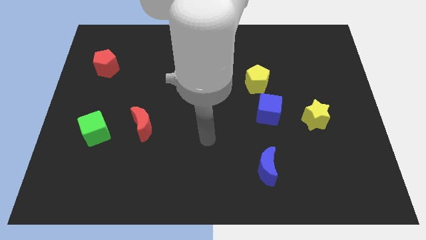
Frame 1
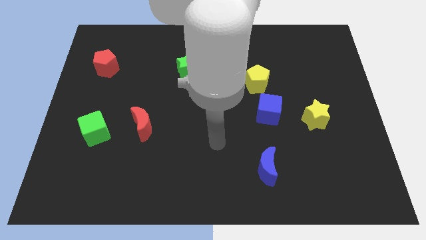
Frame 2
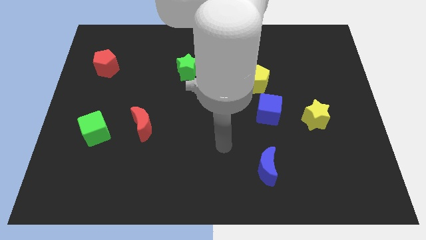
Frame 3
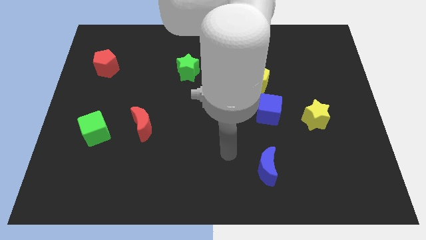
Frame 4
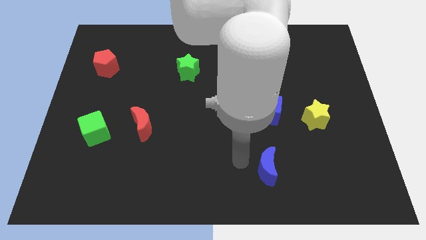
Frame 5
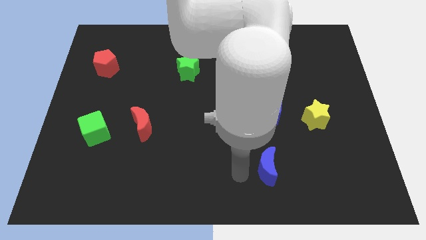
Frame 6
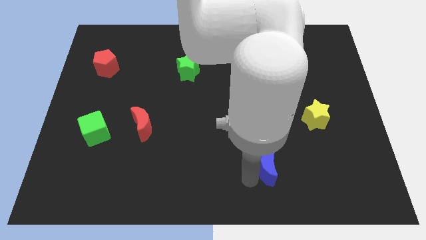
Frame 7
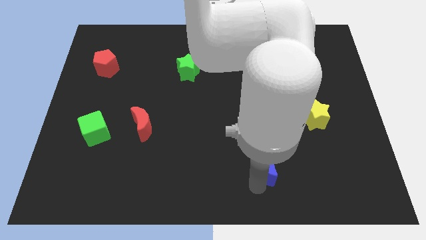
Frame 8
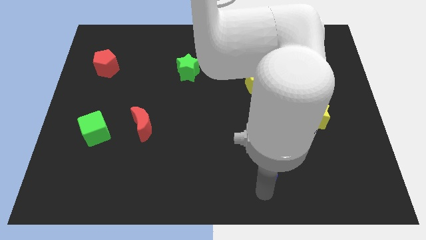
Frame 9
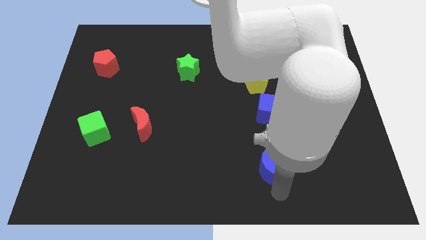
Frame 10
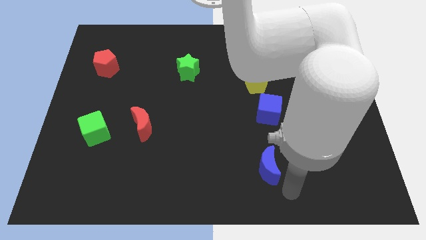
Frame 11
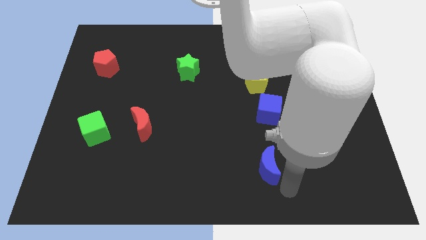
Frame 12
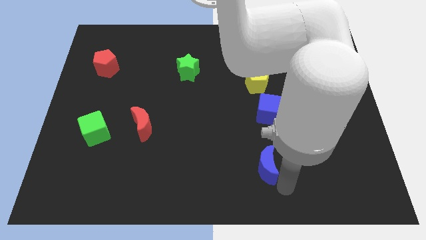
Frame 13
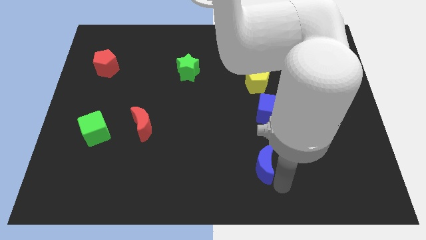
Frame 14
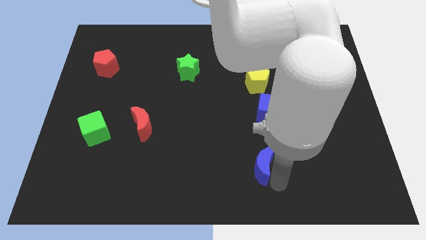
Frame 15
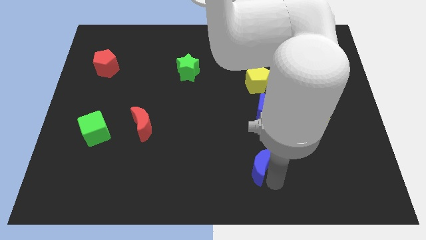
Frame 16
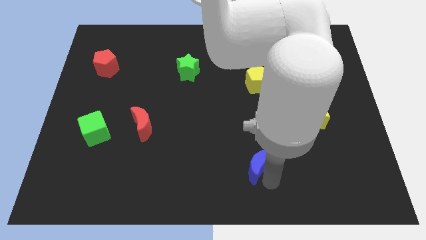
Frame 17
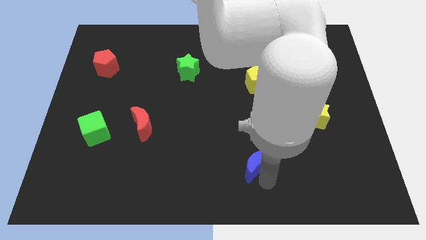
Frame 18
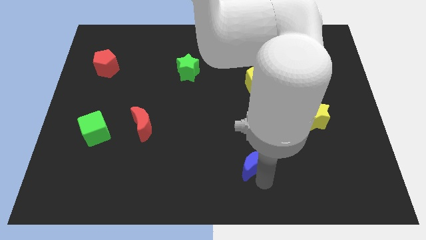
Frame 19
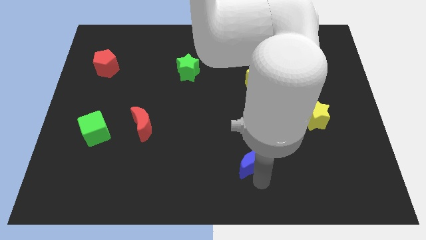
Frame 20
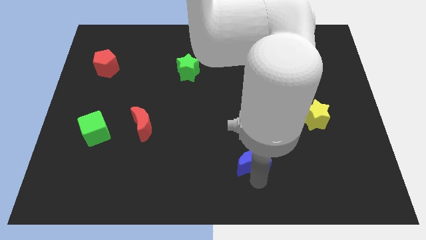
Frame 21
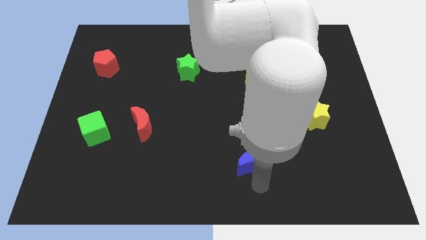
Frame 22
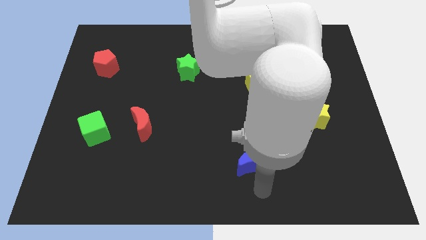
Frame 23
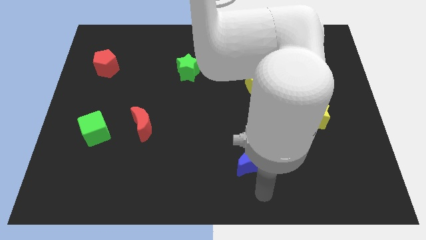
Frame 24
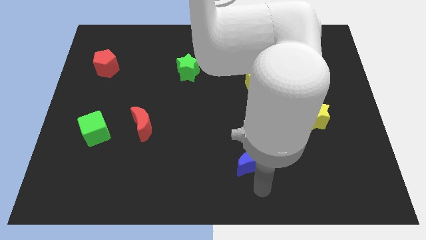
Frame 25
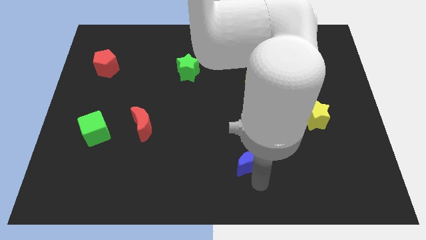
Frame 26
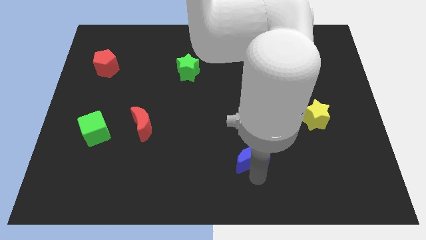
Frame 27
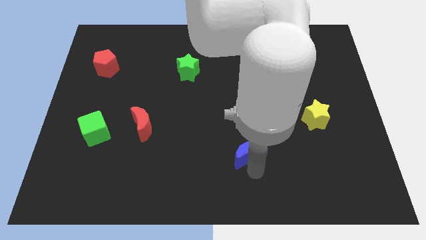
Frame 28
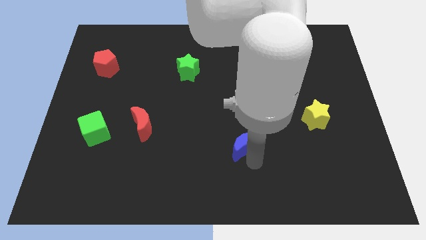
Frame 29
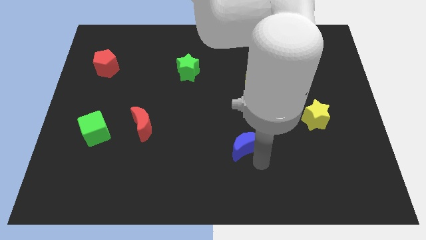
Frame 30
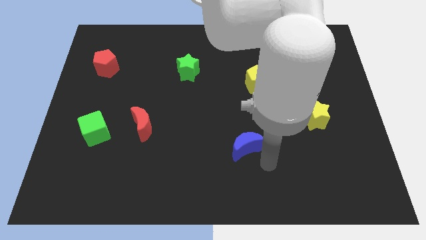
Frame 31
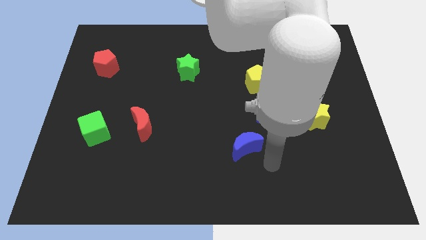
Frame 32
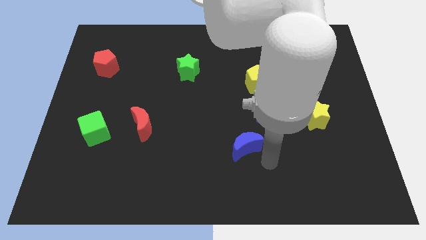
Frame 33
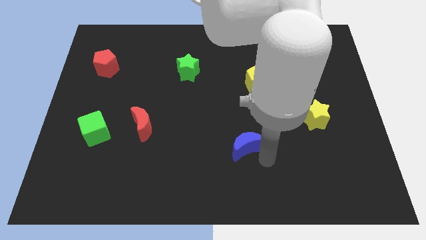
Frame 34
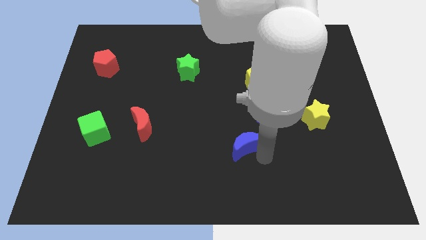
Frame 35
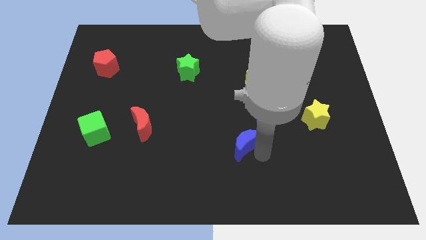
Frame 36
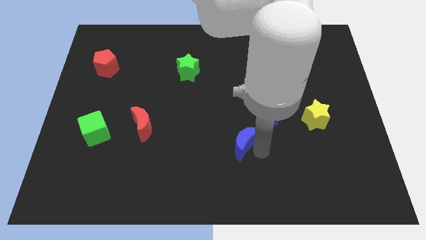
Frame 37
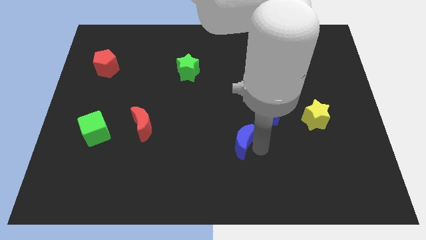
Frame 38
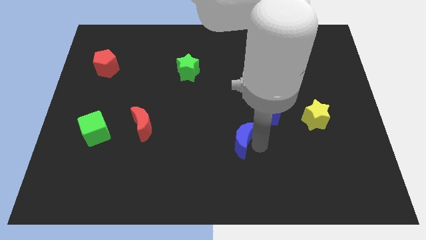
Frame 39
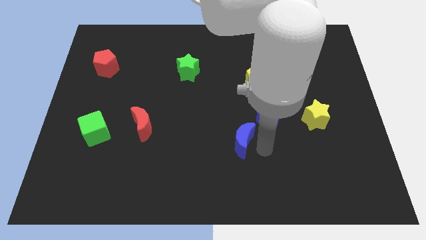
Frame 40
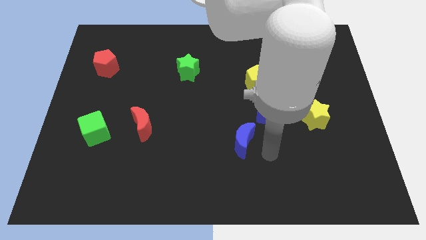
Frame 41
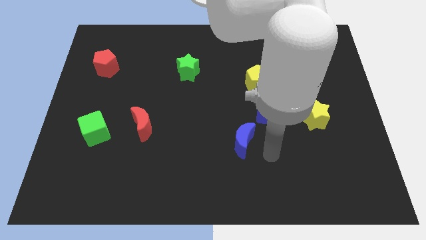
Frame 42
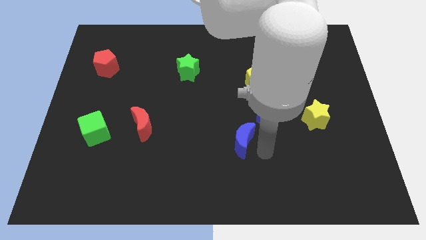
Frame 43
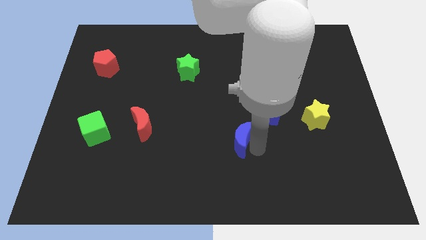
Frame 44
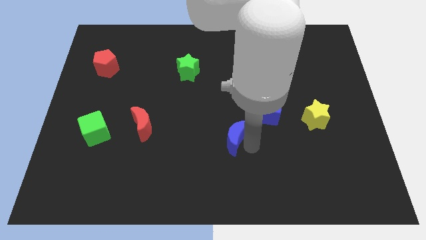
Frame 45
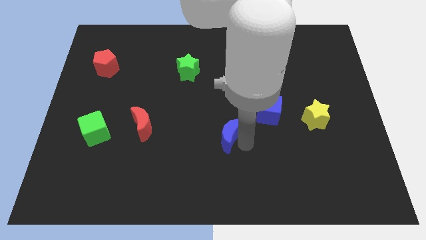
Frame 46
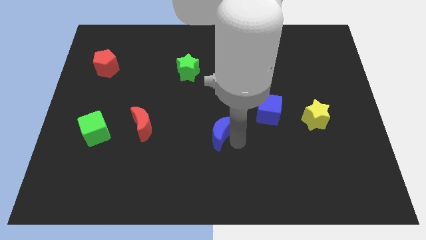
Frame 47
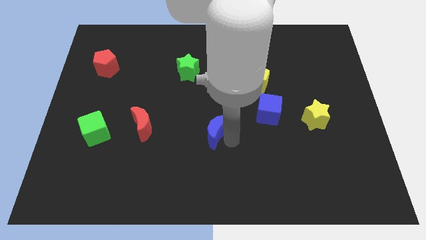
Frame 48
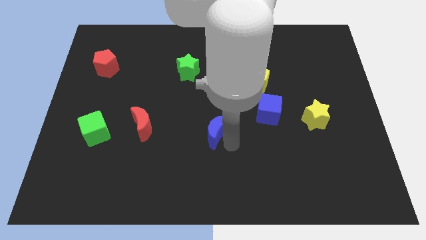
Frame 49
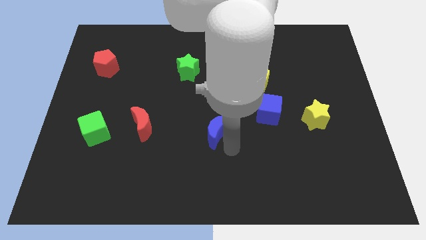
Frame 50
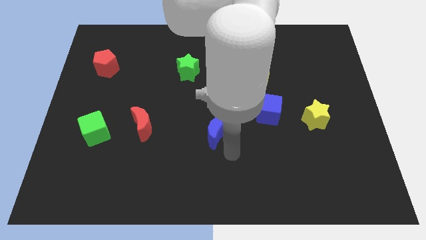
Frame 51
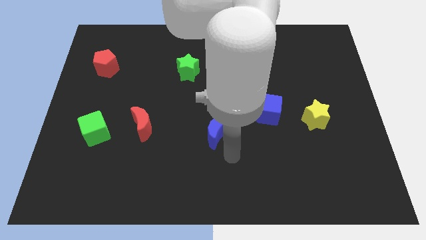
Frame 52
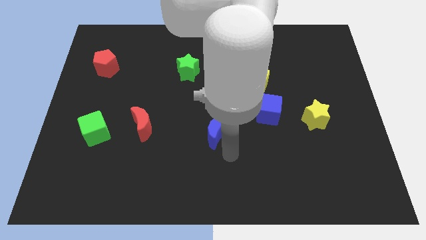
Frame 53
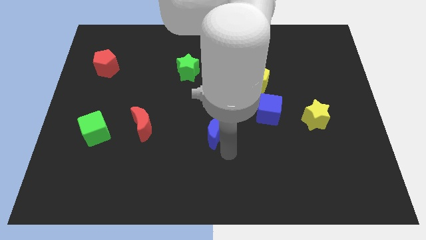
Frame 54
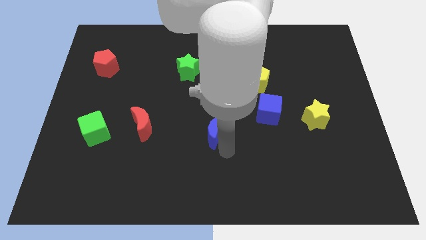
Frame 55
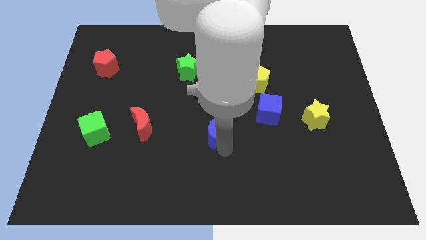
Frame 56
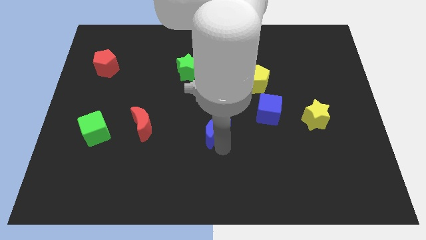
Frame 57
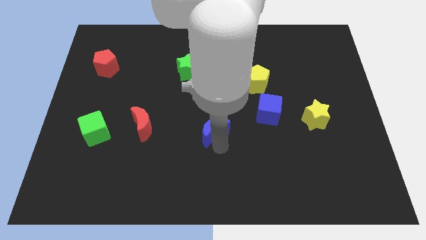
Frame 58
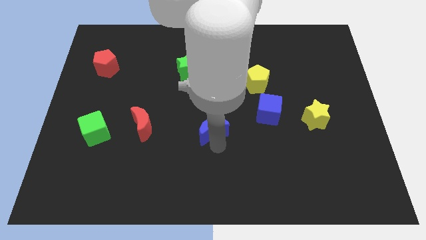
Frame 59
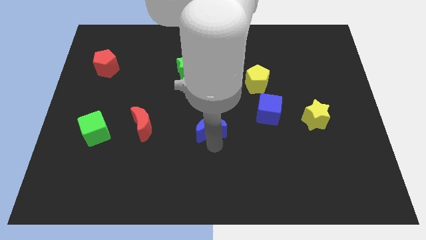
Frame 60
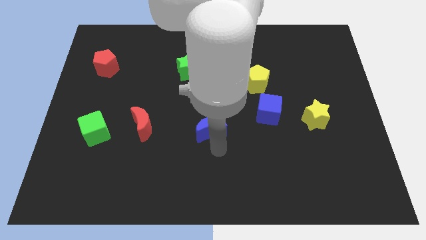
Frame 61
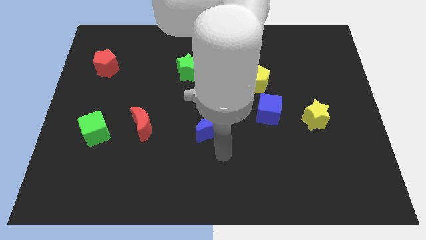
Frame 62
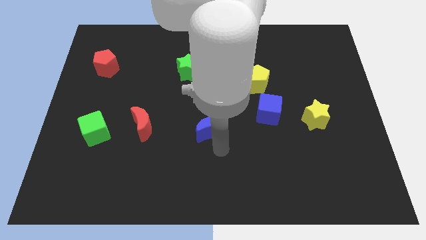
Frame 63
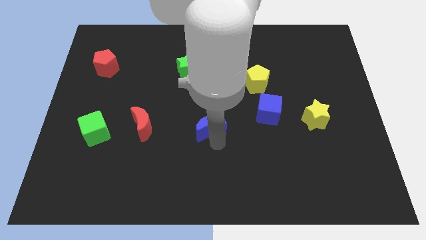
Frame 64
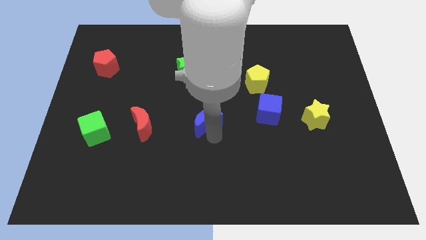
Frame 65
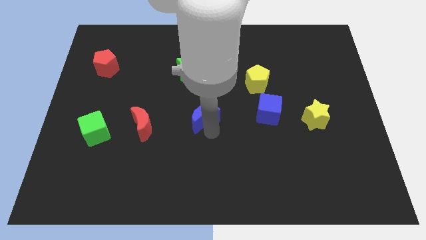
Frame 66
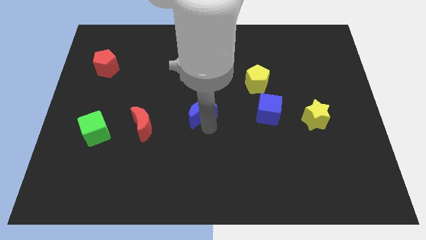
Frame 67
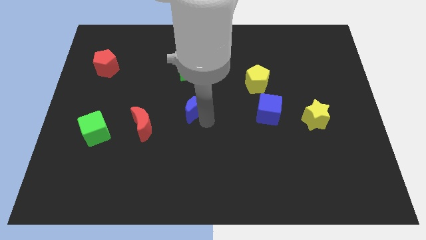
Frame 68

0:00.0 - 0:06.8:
slide the blue moon diagonally upwards and left

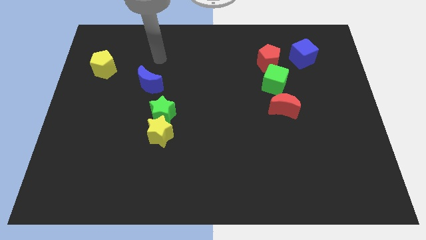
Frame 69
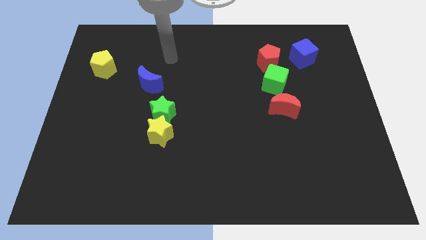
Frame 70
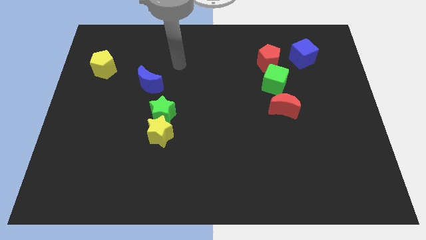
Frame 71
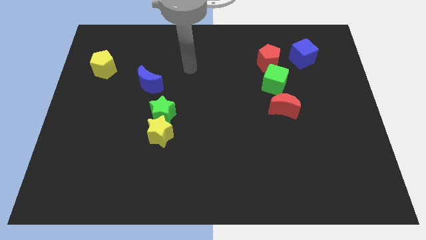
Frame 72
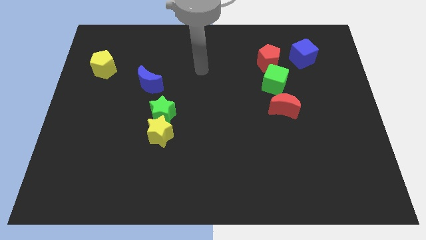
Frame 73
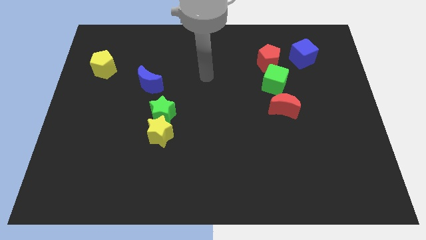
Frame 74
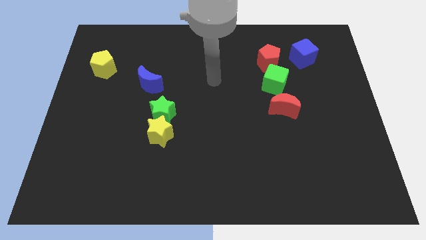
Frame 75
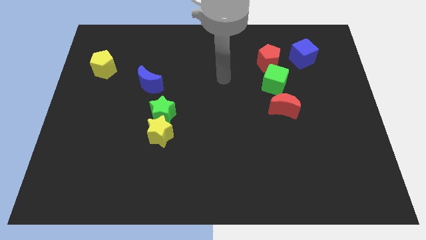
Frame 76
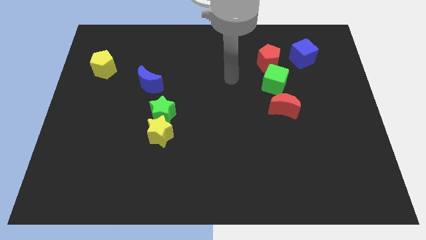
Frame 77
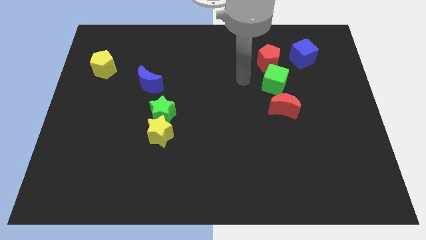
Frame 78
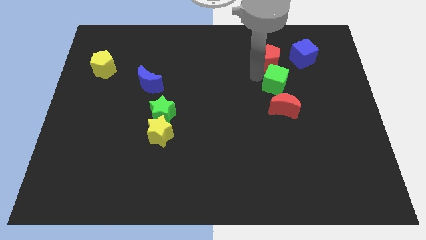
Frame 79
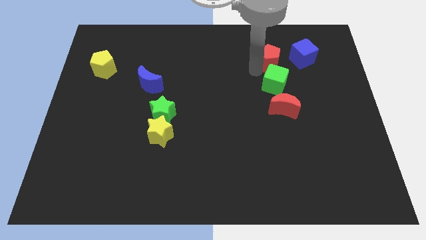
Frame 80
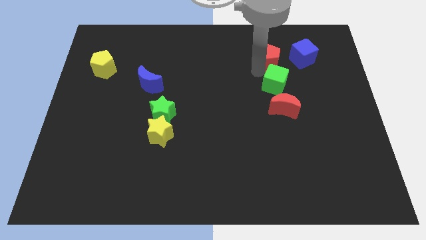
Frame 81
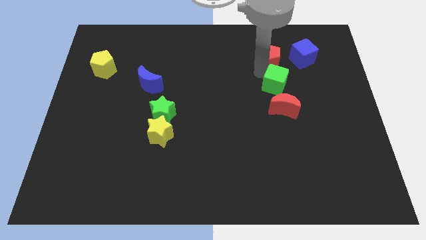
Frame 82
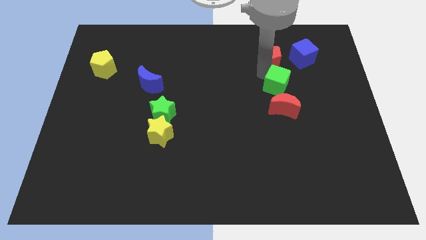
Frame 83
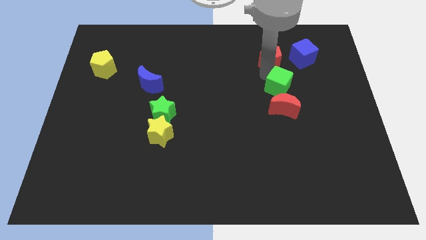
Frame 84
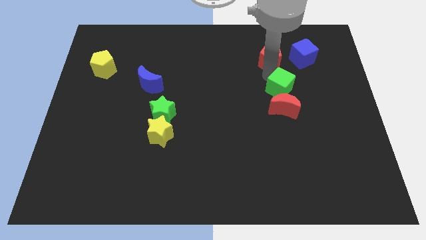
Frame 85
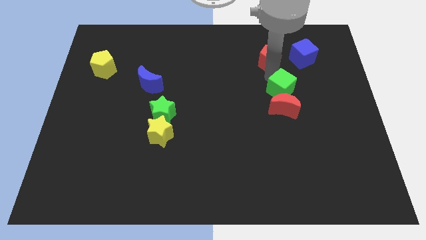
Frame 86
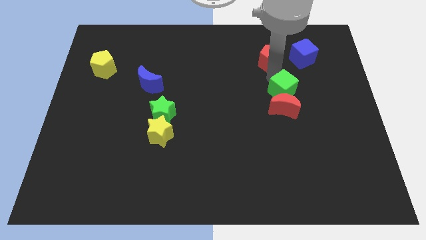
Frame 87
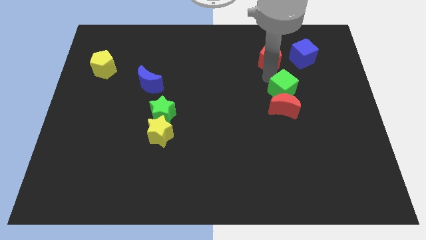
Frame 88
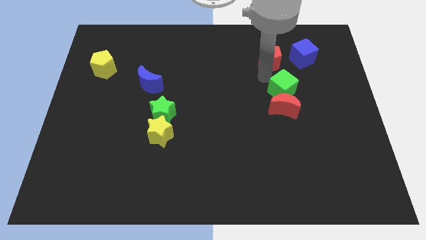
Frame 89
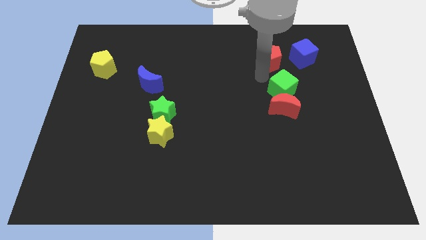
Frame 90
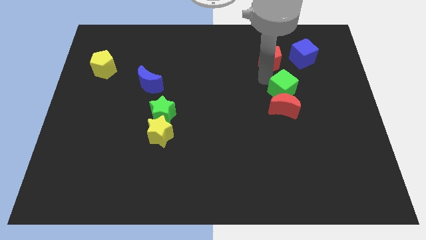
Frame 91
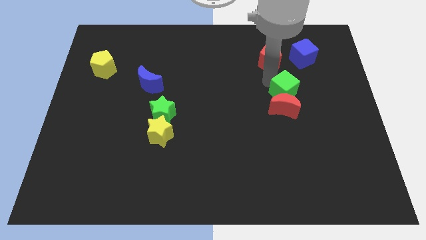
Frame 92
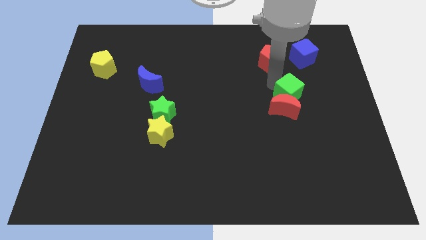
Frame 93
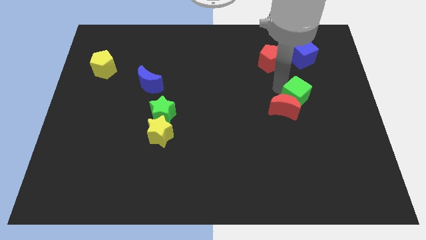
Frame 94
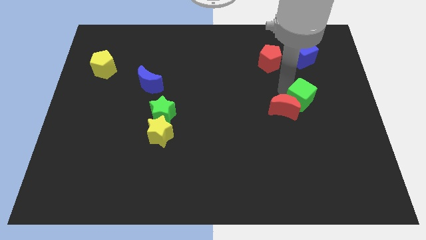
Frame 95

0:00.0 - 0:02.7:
push the green cube slightly downwards and to the right
